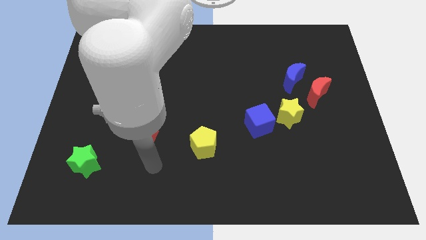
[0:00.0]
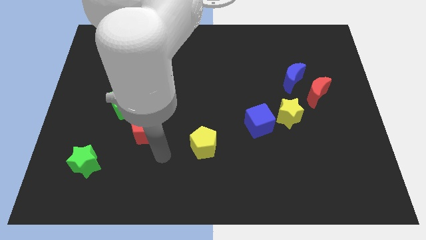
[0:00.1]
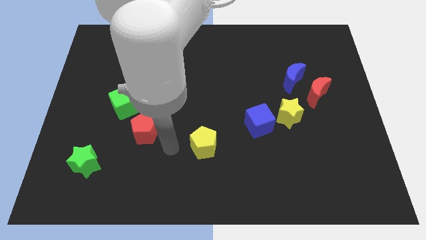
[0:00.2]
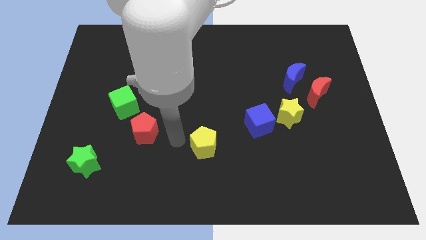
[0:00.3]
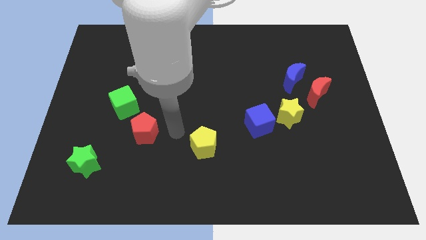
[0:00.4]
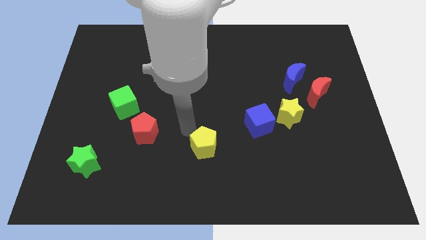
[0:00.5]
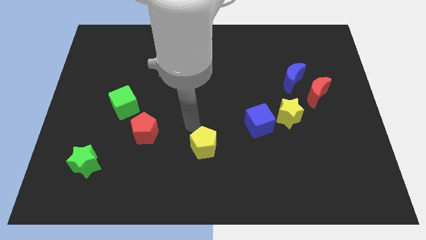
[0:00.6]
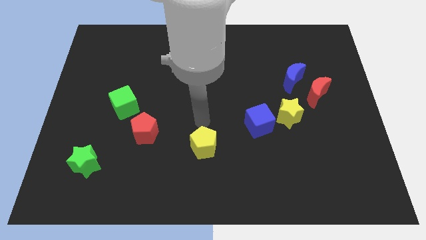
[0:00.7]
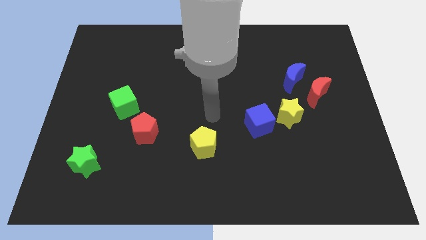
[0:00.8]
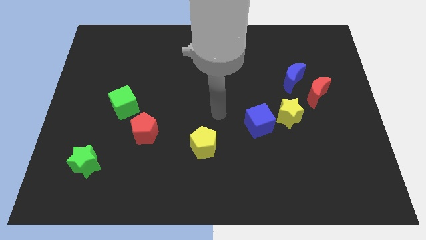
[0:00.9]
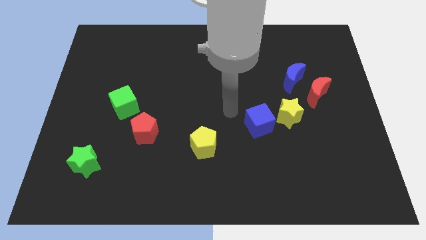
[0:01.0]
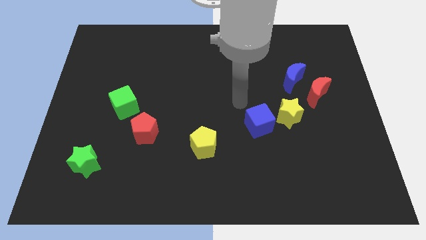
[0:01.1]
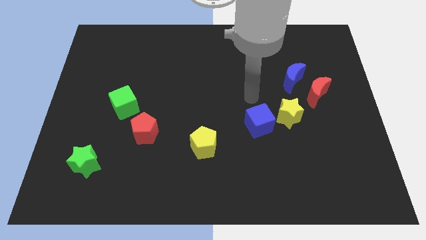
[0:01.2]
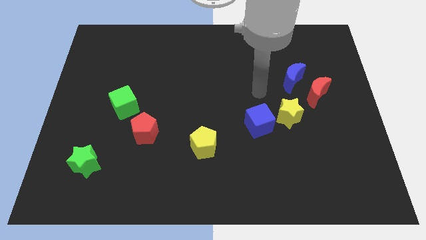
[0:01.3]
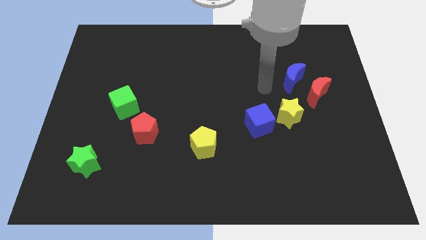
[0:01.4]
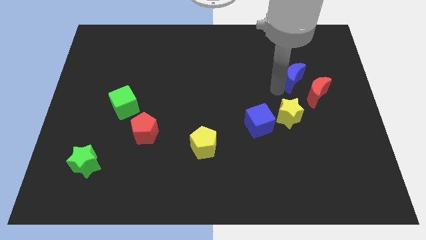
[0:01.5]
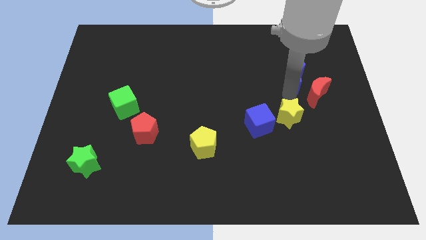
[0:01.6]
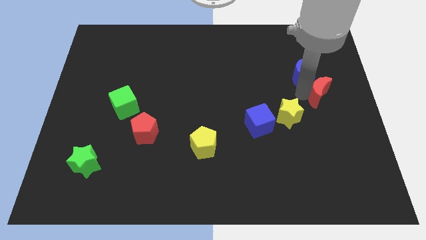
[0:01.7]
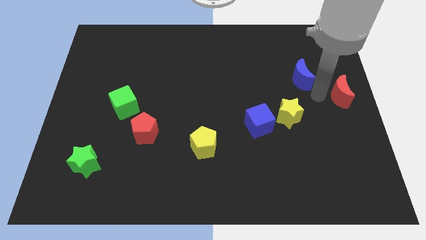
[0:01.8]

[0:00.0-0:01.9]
move the blue moon away from the red moon

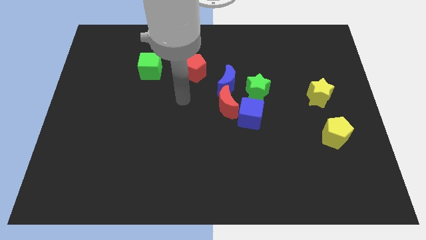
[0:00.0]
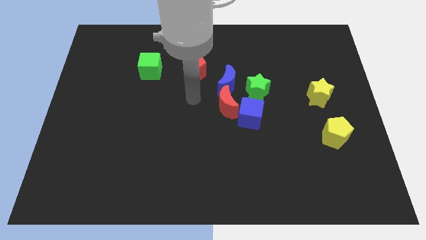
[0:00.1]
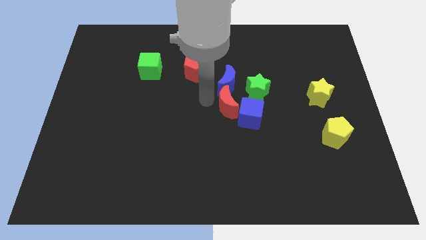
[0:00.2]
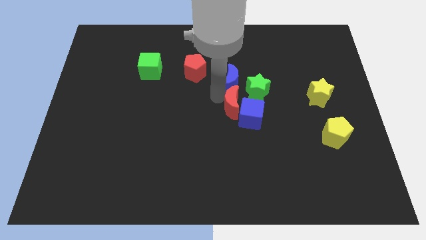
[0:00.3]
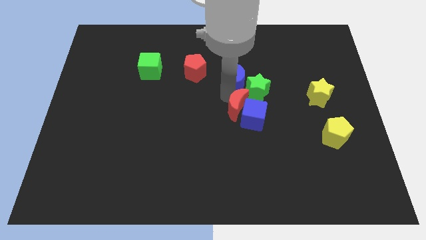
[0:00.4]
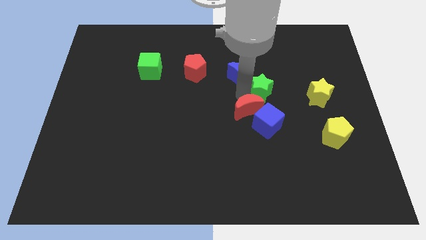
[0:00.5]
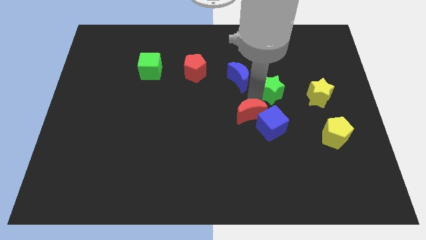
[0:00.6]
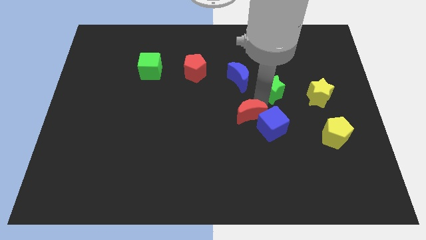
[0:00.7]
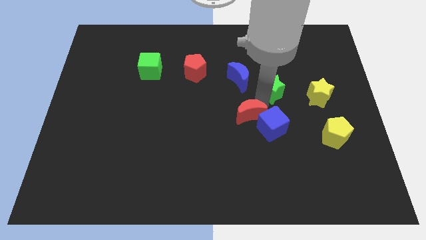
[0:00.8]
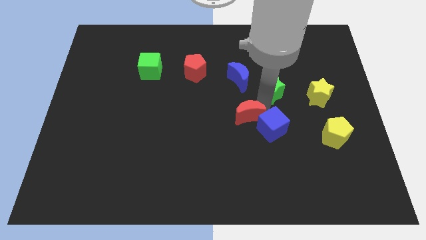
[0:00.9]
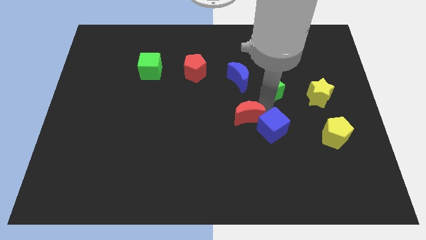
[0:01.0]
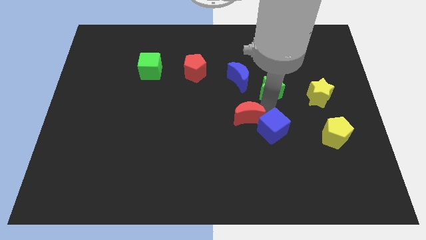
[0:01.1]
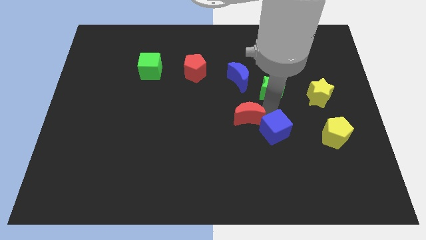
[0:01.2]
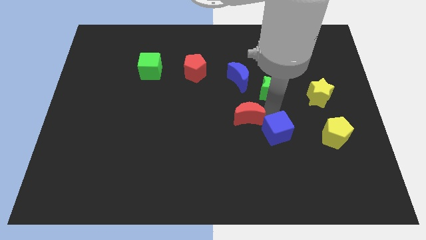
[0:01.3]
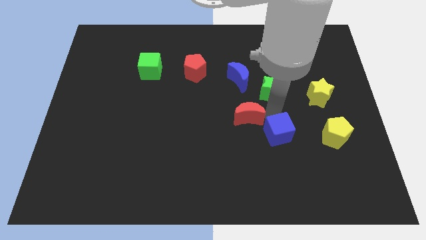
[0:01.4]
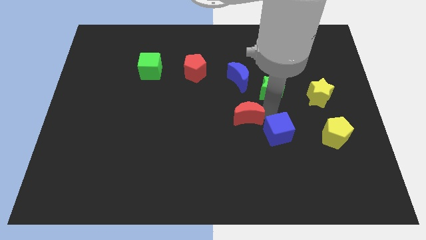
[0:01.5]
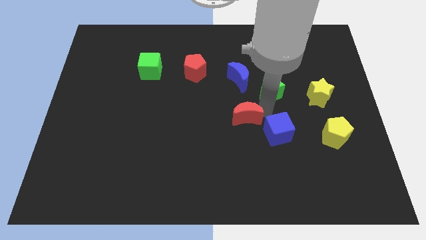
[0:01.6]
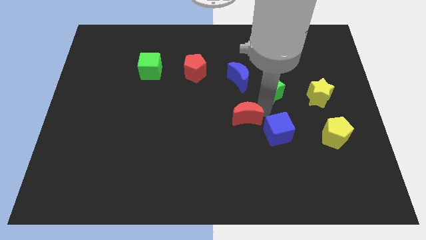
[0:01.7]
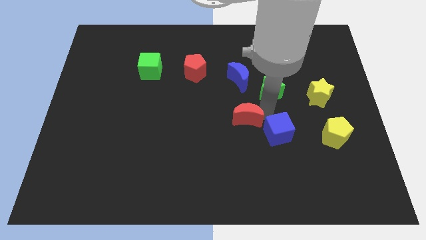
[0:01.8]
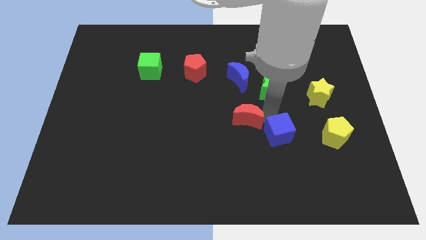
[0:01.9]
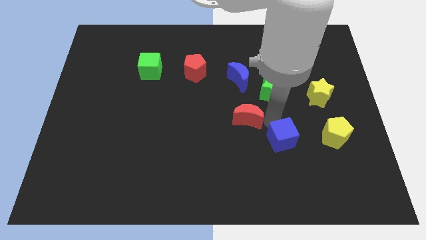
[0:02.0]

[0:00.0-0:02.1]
move the blue cube away from the red moon and green star

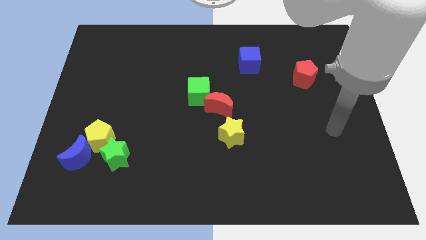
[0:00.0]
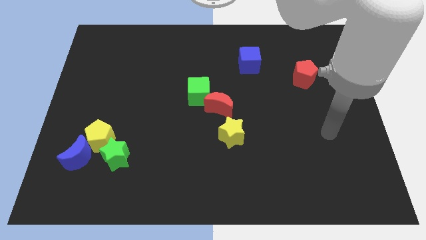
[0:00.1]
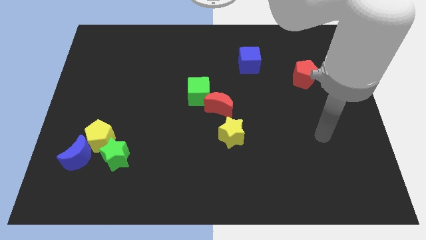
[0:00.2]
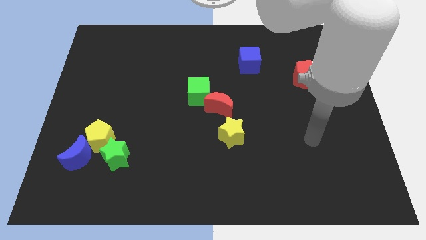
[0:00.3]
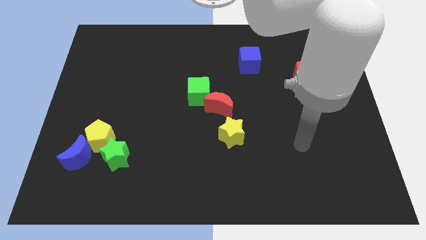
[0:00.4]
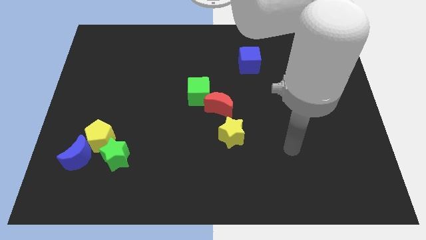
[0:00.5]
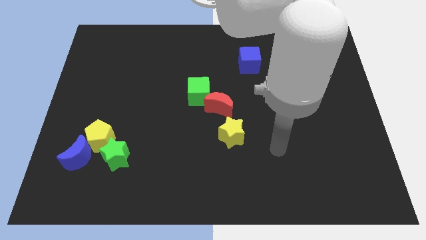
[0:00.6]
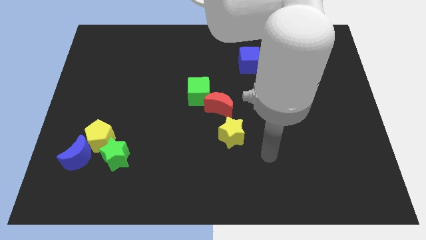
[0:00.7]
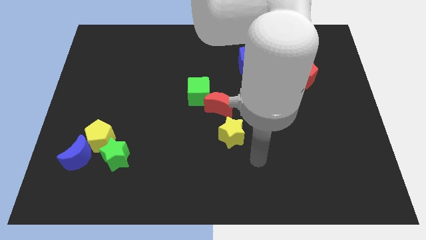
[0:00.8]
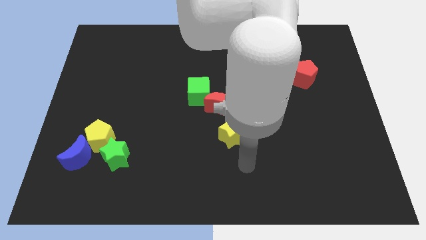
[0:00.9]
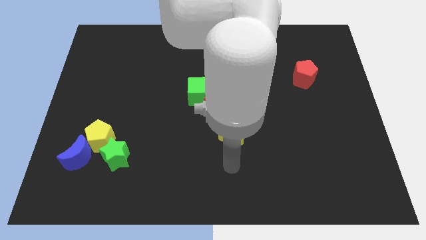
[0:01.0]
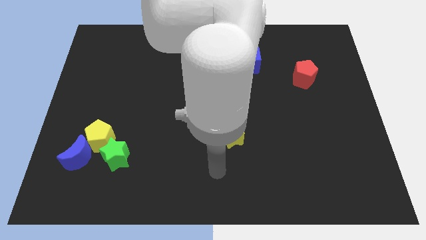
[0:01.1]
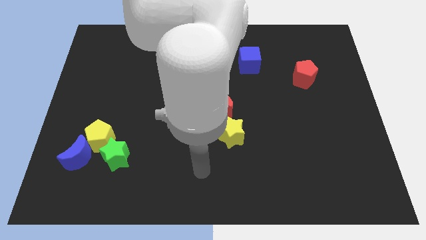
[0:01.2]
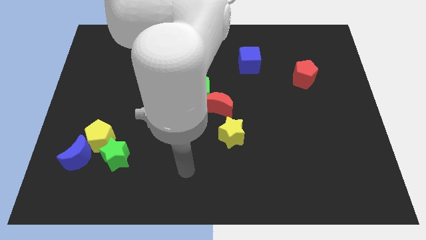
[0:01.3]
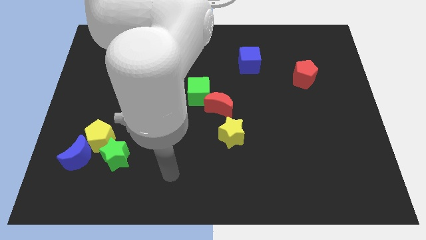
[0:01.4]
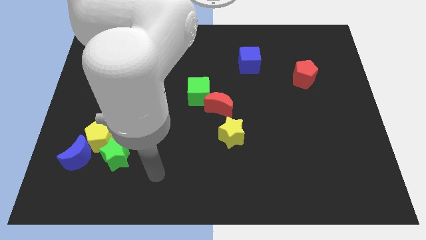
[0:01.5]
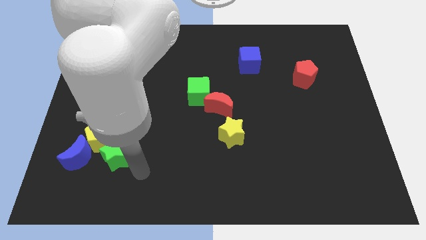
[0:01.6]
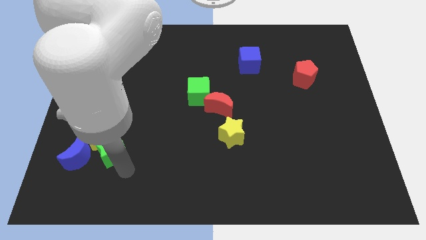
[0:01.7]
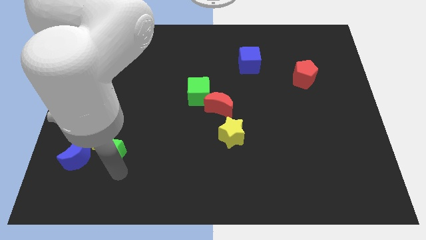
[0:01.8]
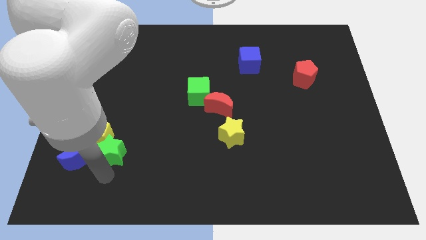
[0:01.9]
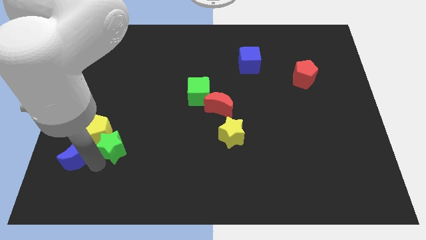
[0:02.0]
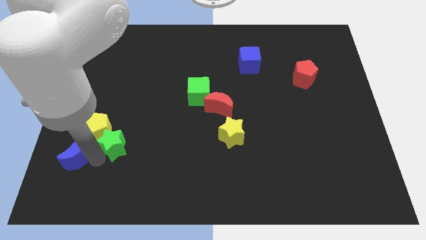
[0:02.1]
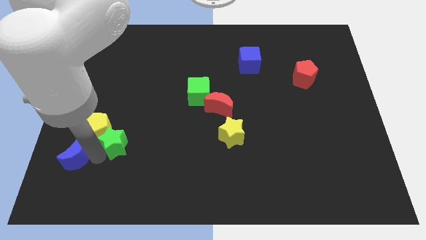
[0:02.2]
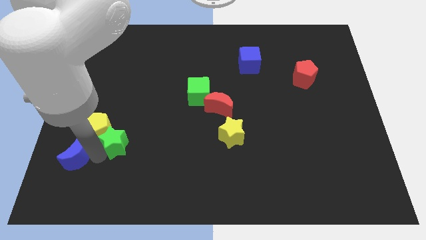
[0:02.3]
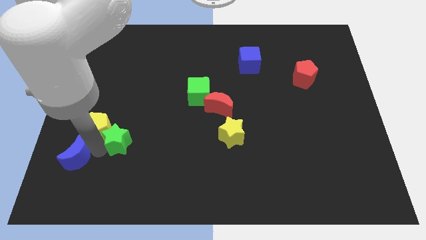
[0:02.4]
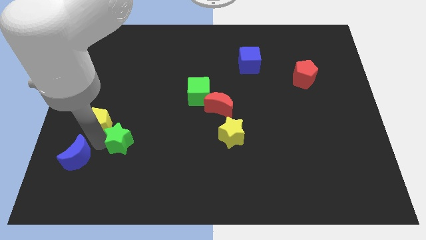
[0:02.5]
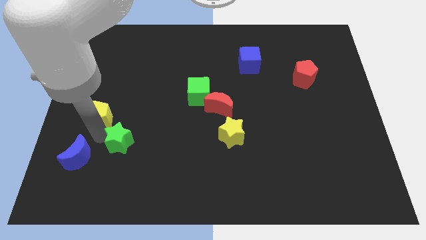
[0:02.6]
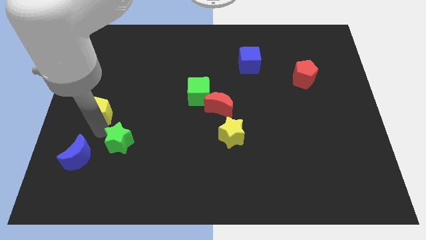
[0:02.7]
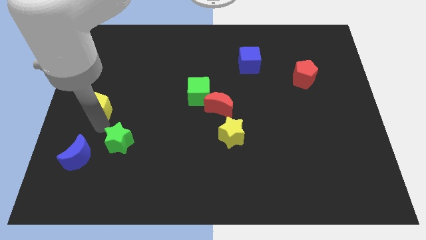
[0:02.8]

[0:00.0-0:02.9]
move the yellow pentagon away from the green star and blue moon

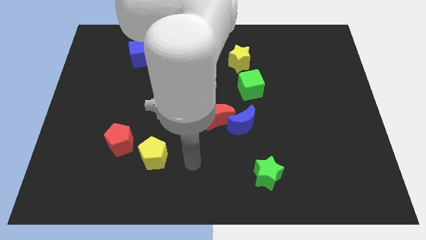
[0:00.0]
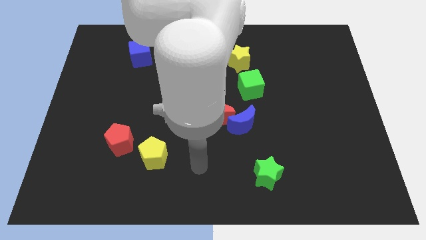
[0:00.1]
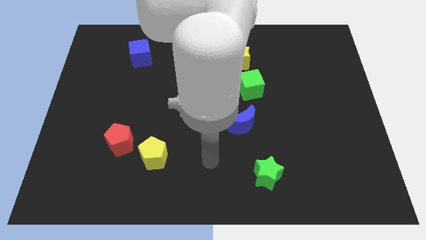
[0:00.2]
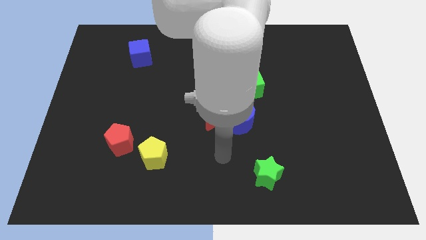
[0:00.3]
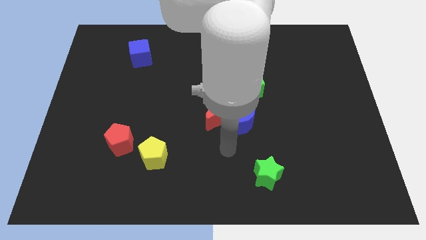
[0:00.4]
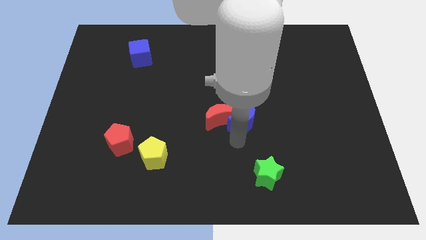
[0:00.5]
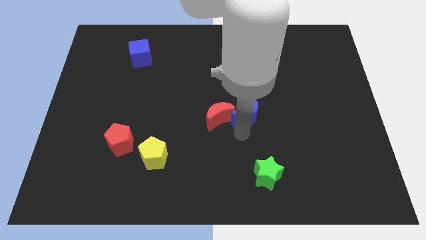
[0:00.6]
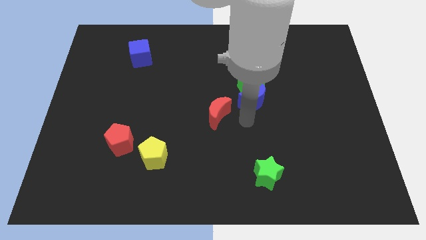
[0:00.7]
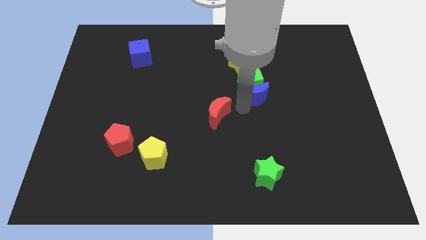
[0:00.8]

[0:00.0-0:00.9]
move the red moon away from the blue moon

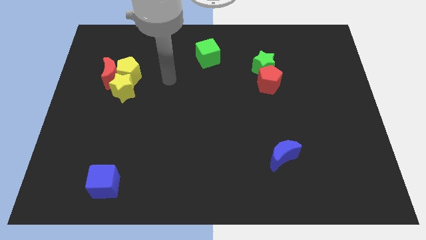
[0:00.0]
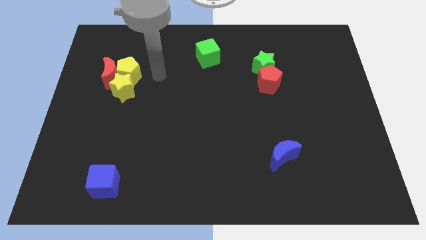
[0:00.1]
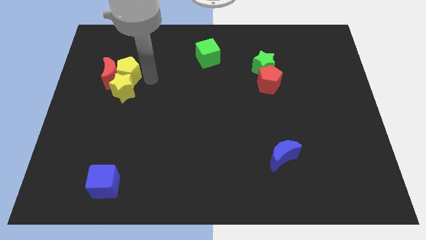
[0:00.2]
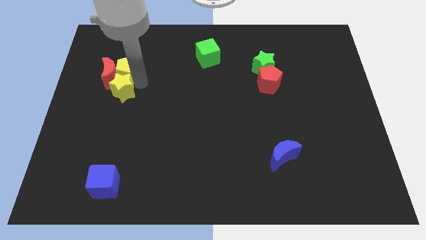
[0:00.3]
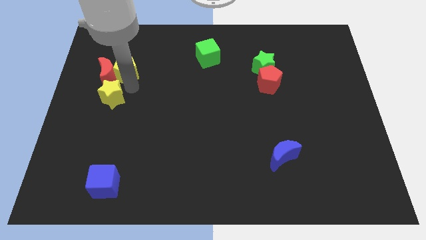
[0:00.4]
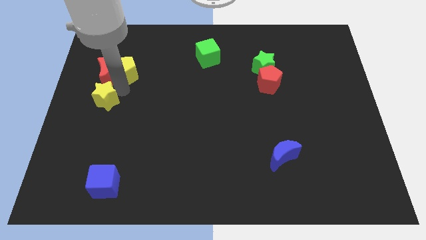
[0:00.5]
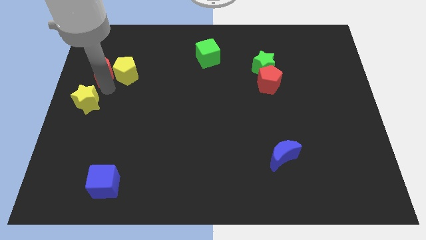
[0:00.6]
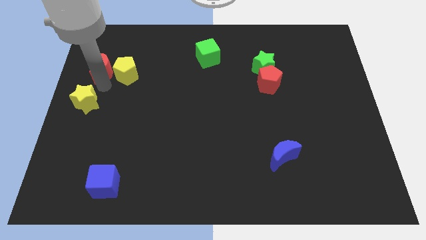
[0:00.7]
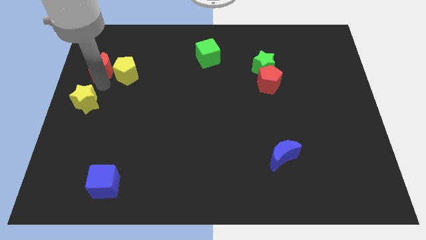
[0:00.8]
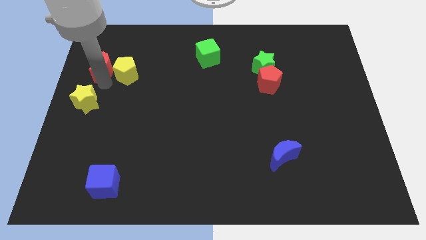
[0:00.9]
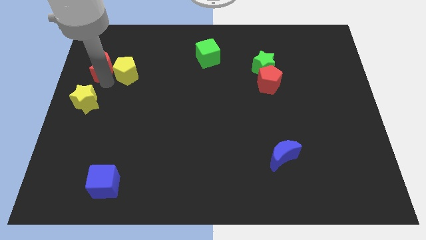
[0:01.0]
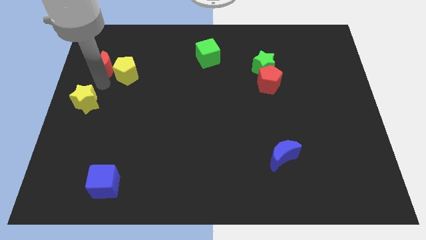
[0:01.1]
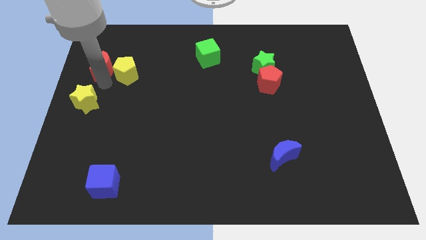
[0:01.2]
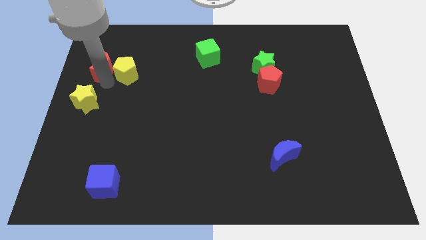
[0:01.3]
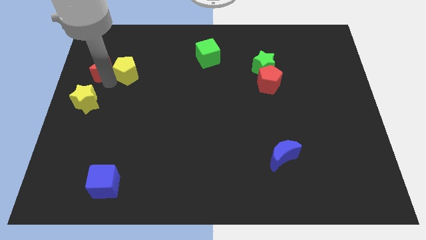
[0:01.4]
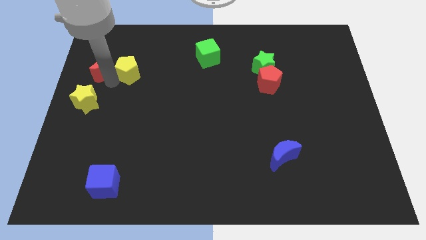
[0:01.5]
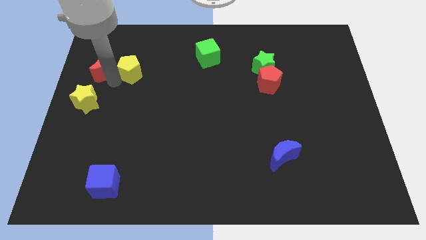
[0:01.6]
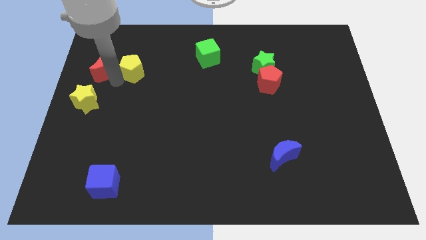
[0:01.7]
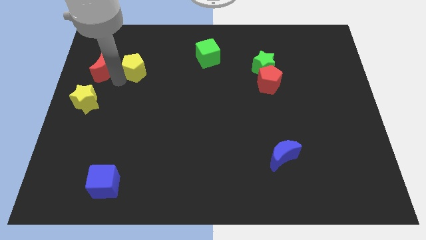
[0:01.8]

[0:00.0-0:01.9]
pull the yellow pentagon apart from the red moon and yellow star
